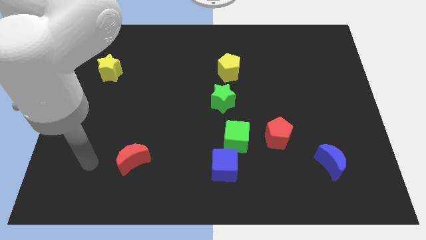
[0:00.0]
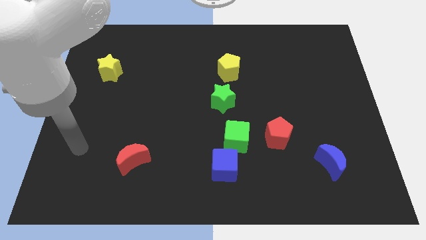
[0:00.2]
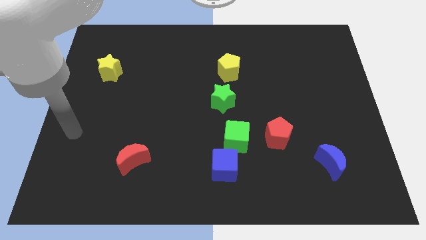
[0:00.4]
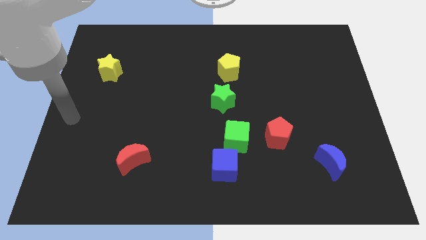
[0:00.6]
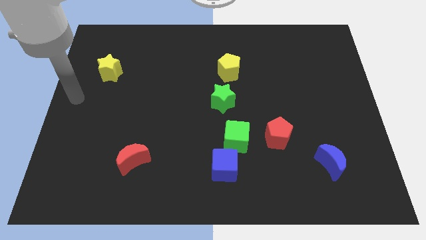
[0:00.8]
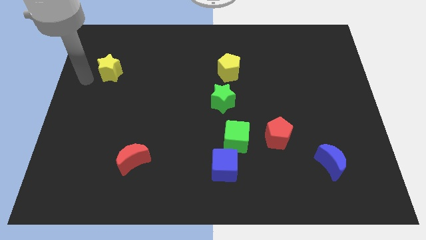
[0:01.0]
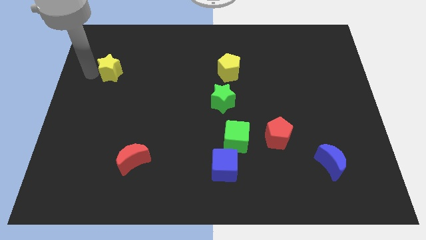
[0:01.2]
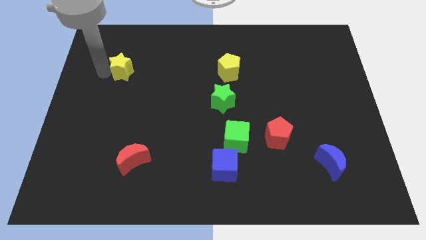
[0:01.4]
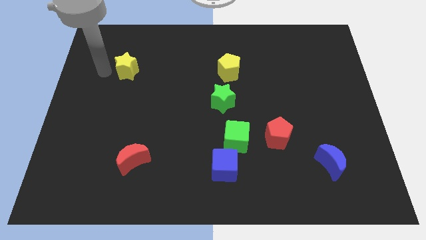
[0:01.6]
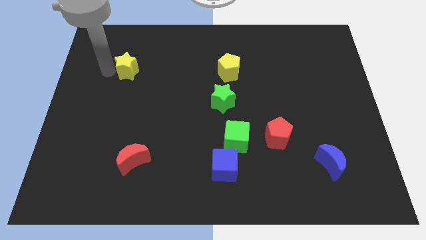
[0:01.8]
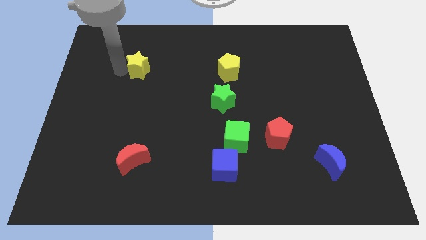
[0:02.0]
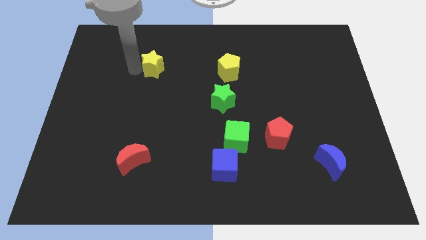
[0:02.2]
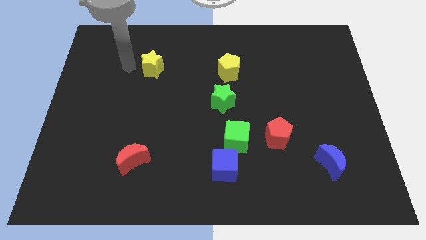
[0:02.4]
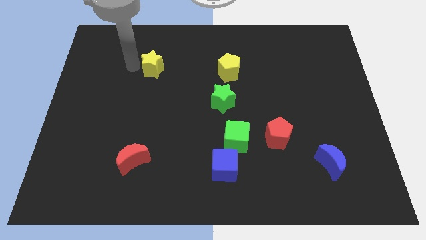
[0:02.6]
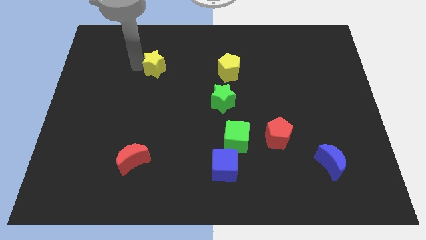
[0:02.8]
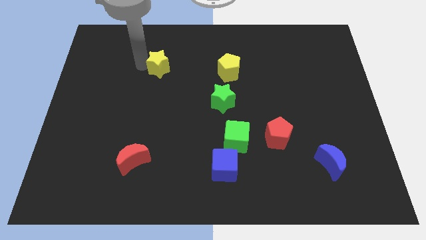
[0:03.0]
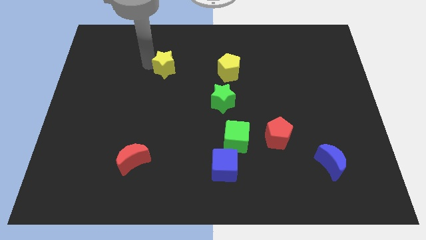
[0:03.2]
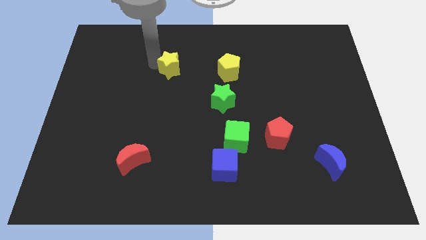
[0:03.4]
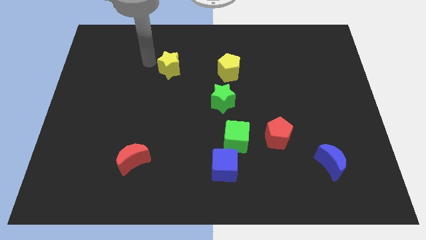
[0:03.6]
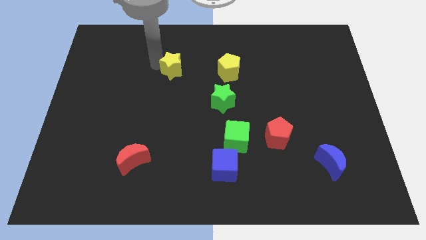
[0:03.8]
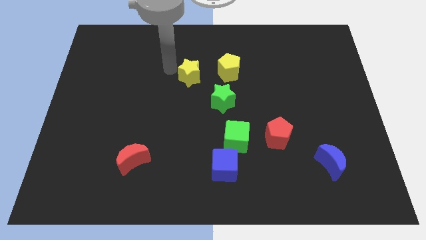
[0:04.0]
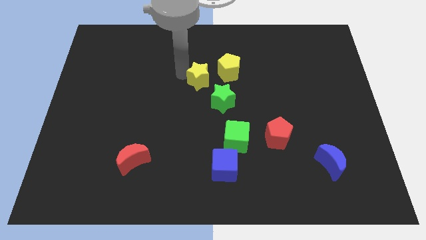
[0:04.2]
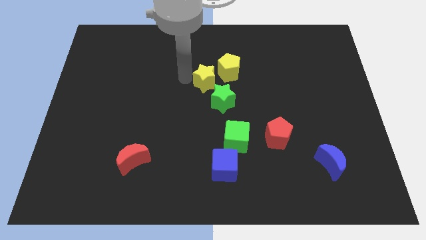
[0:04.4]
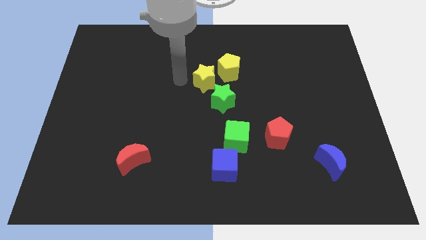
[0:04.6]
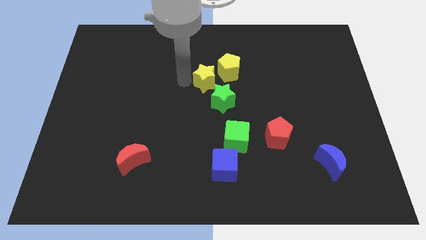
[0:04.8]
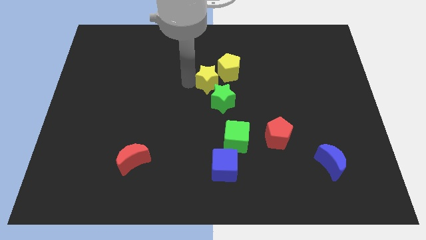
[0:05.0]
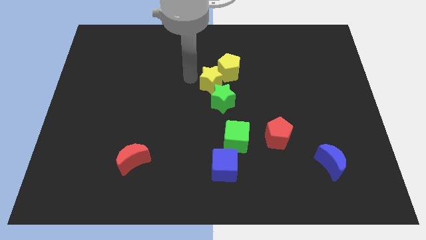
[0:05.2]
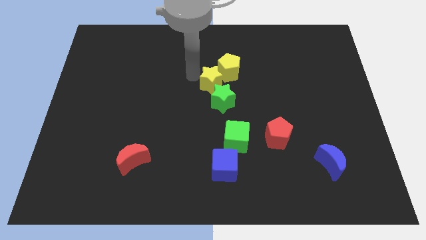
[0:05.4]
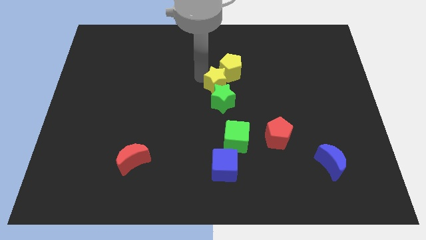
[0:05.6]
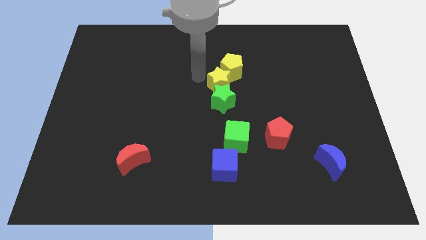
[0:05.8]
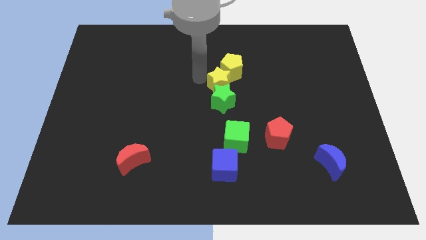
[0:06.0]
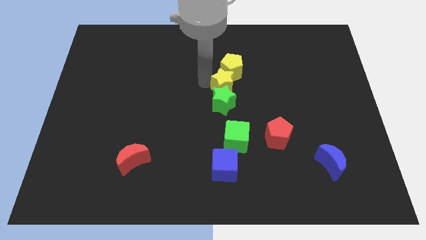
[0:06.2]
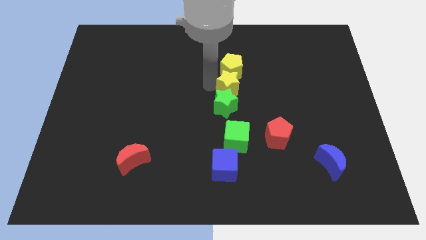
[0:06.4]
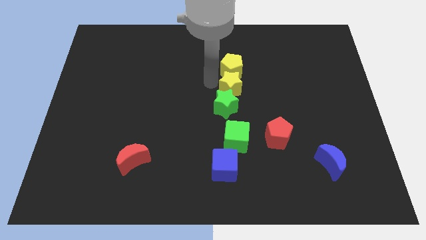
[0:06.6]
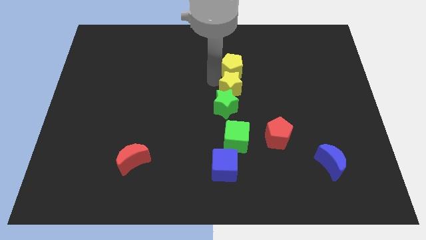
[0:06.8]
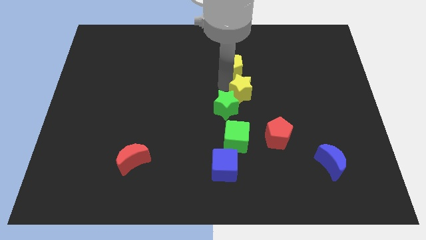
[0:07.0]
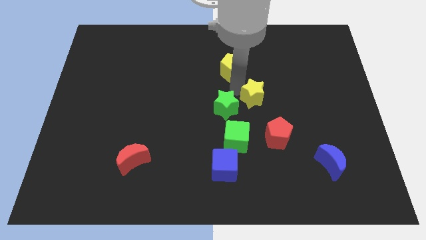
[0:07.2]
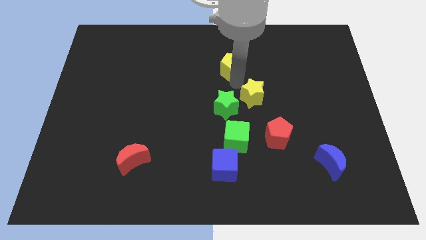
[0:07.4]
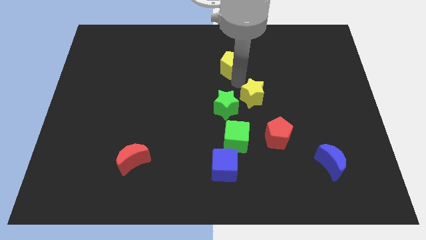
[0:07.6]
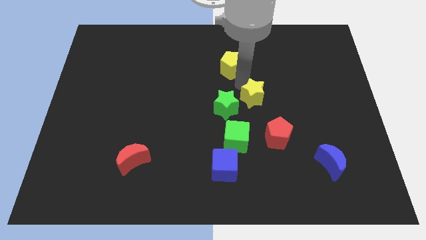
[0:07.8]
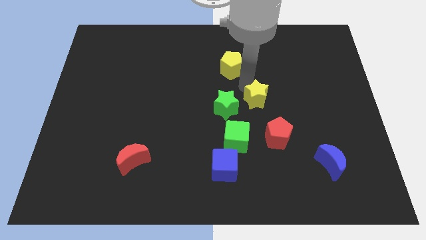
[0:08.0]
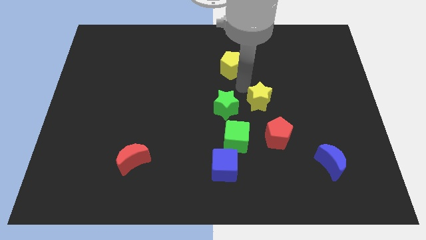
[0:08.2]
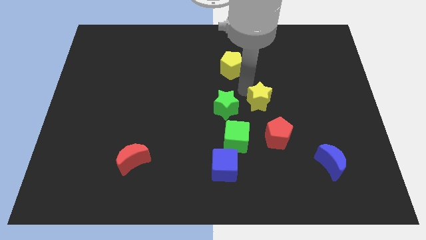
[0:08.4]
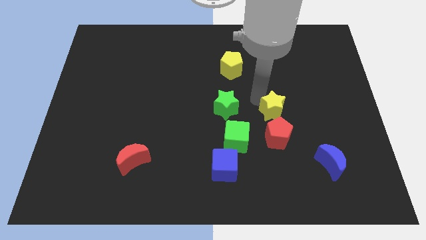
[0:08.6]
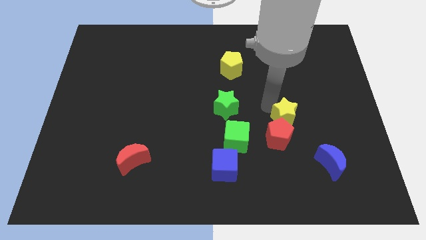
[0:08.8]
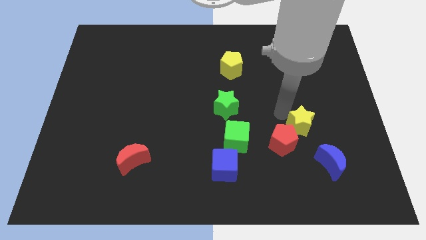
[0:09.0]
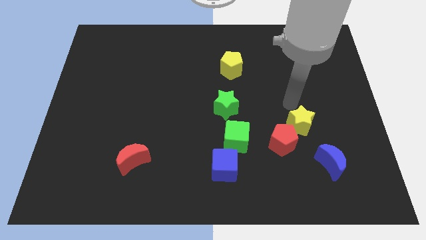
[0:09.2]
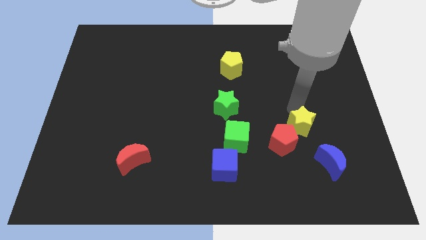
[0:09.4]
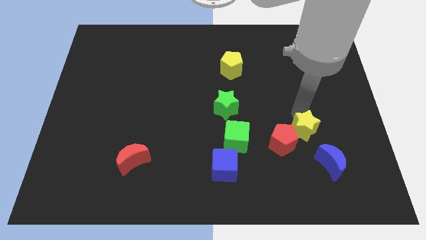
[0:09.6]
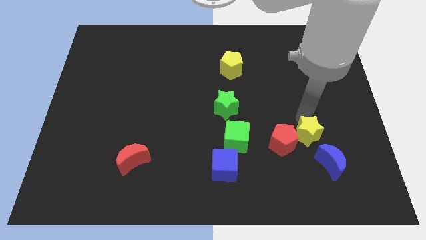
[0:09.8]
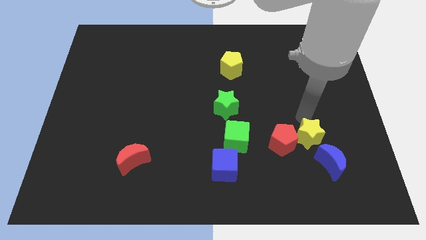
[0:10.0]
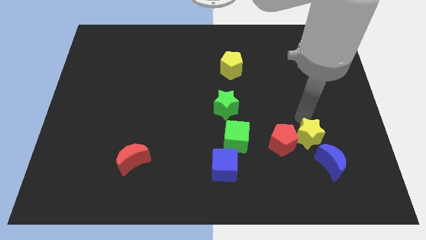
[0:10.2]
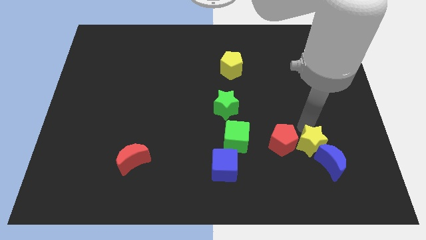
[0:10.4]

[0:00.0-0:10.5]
slide the yellow star towards the blue moon

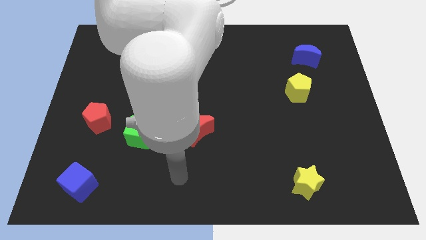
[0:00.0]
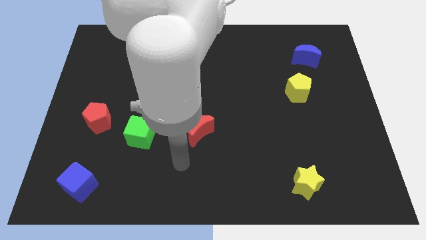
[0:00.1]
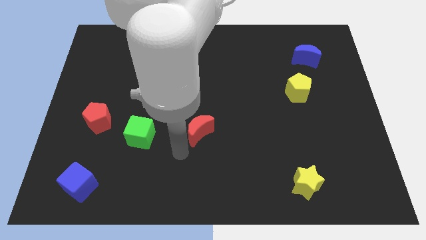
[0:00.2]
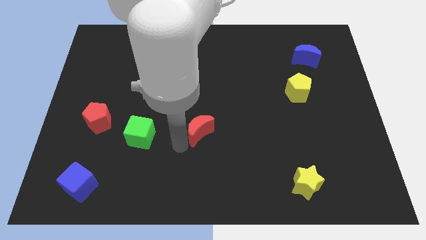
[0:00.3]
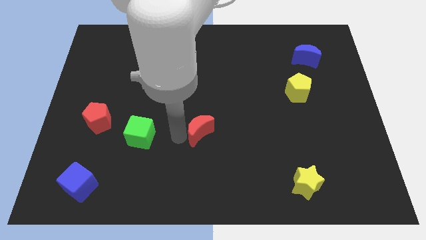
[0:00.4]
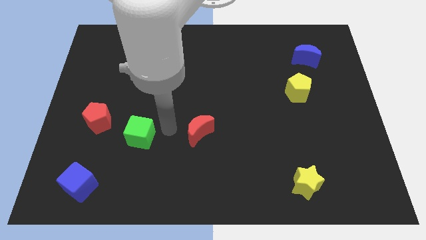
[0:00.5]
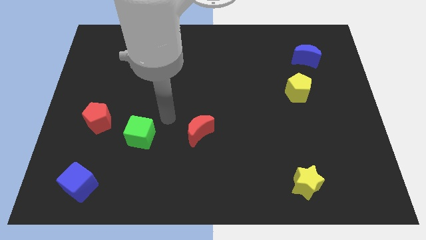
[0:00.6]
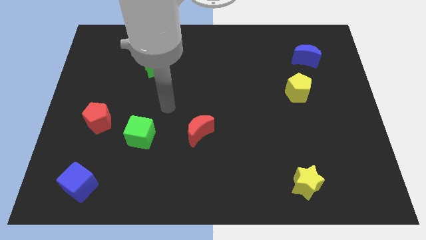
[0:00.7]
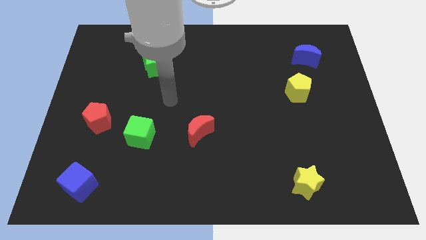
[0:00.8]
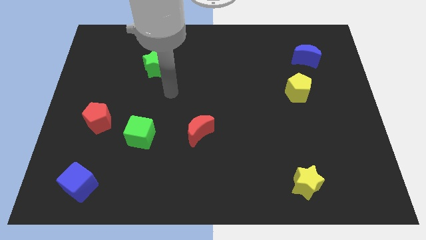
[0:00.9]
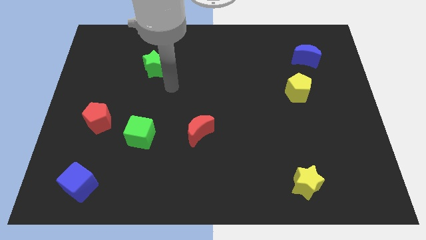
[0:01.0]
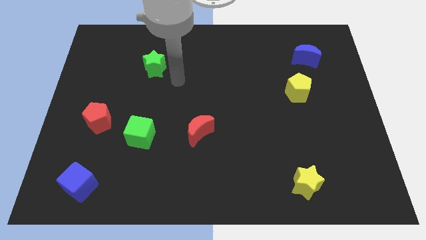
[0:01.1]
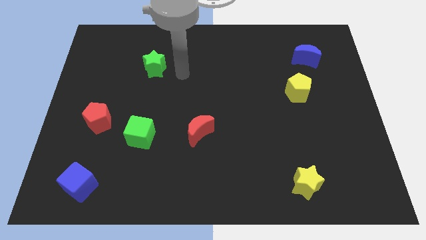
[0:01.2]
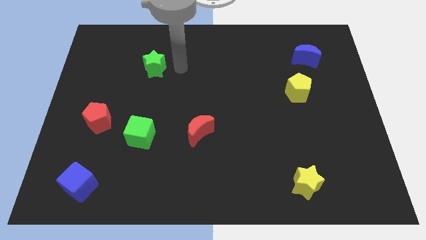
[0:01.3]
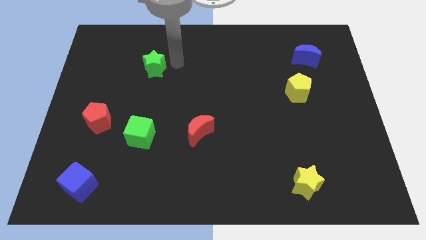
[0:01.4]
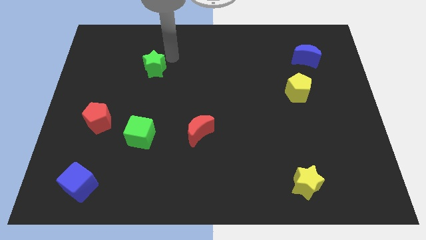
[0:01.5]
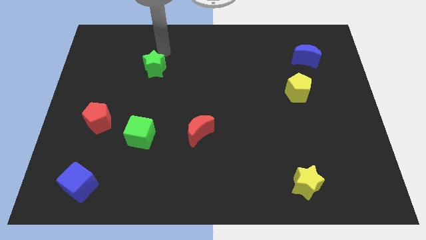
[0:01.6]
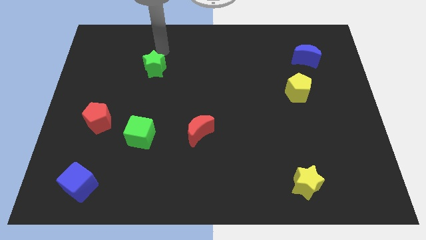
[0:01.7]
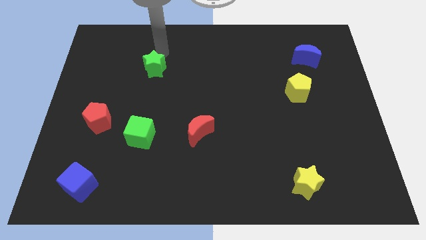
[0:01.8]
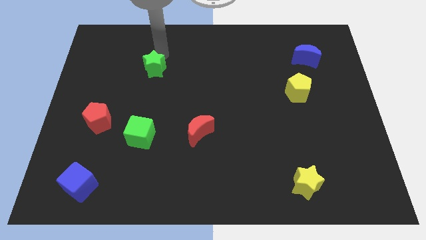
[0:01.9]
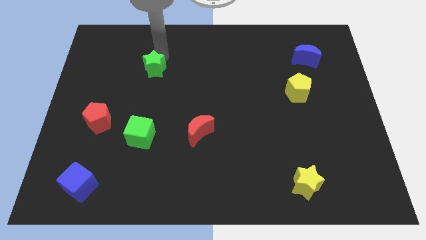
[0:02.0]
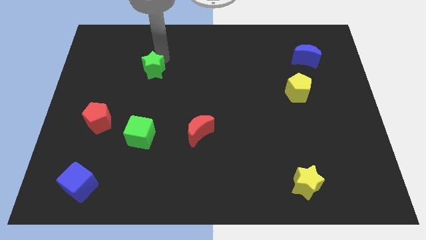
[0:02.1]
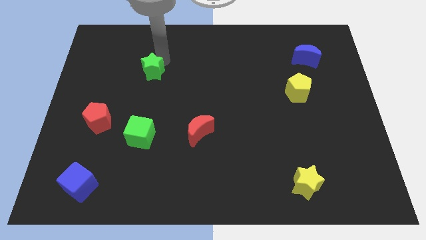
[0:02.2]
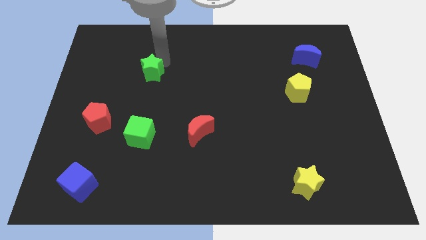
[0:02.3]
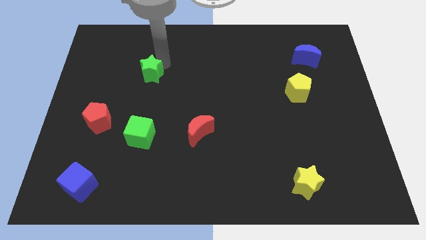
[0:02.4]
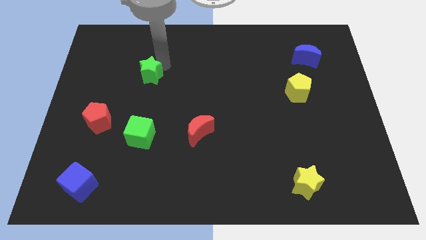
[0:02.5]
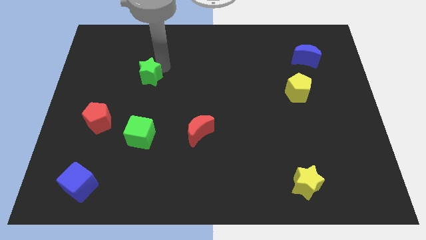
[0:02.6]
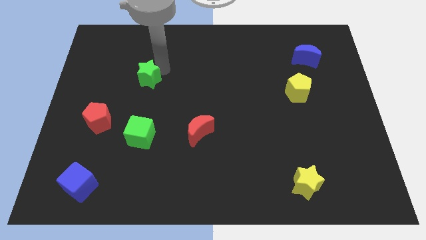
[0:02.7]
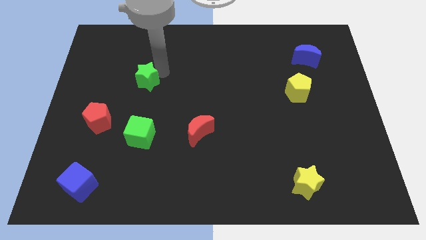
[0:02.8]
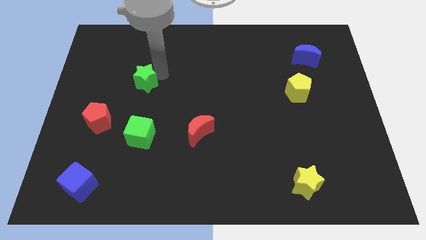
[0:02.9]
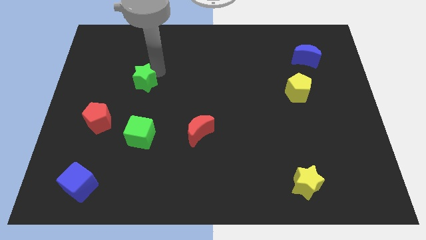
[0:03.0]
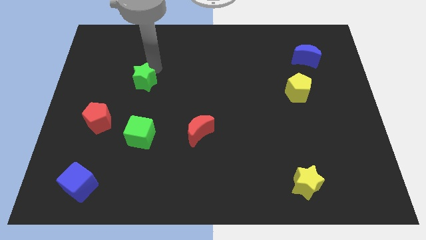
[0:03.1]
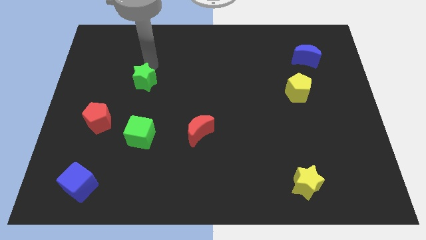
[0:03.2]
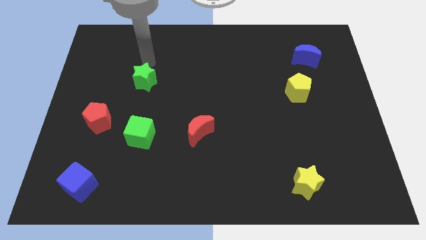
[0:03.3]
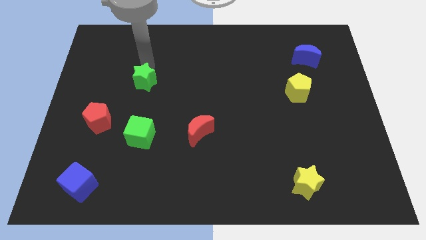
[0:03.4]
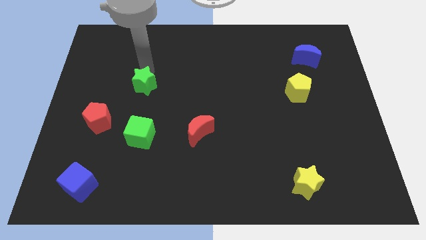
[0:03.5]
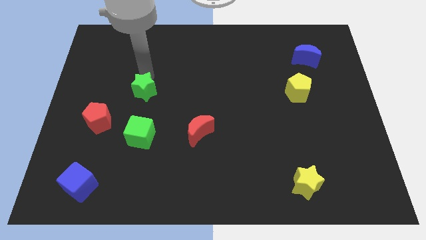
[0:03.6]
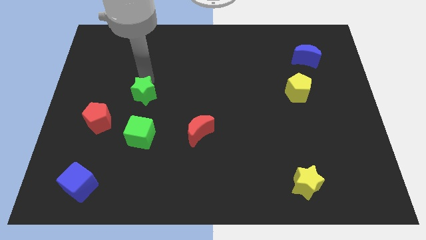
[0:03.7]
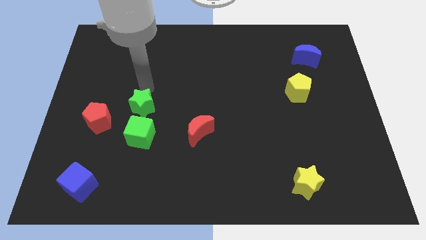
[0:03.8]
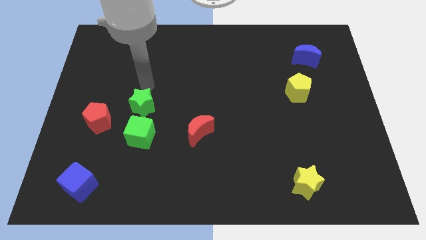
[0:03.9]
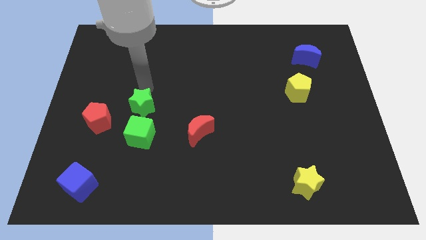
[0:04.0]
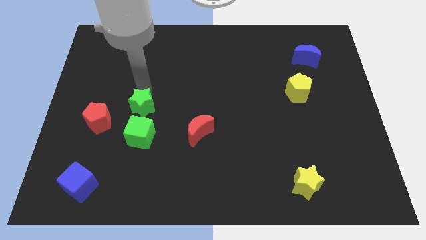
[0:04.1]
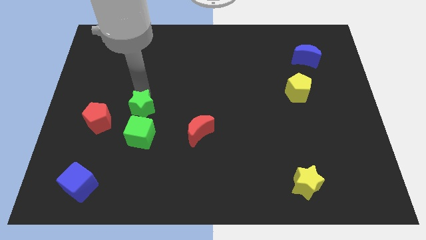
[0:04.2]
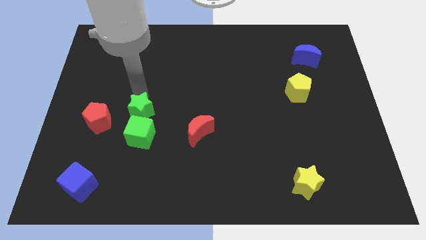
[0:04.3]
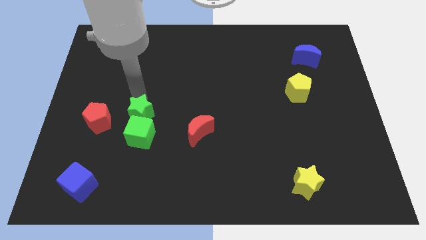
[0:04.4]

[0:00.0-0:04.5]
put the green star close to the green cube
